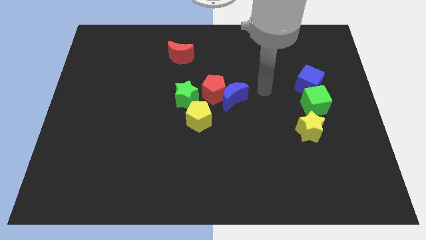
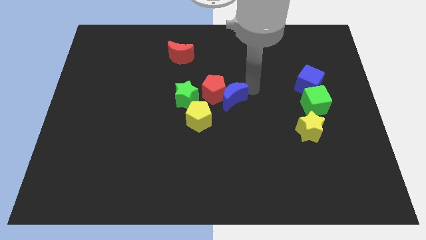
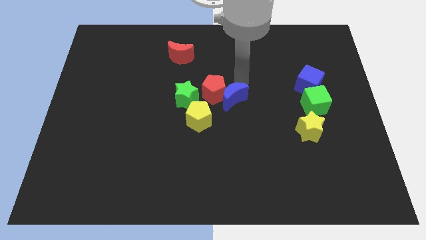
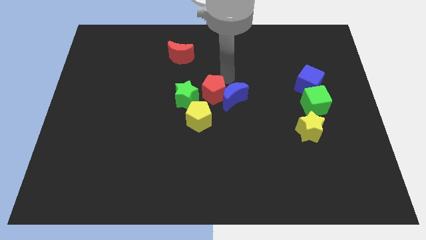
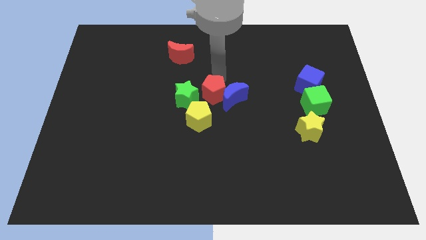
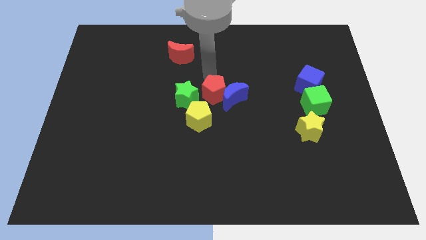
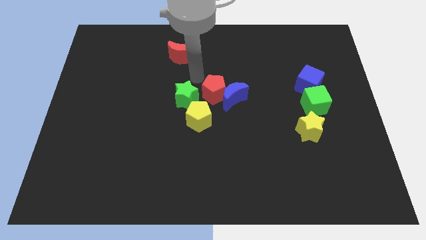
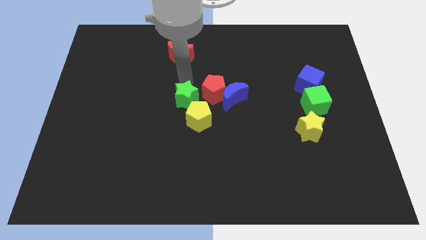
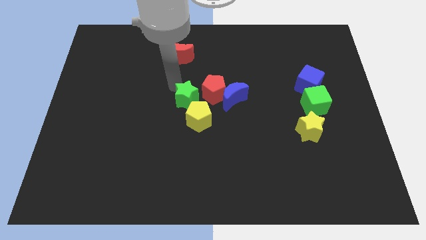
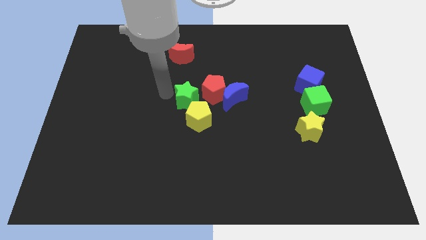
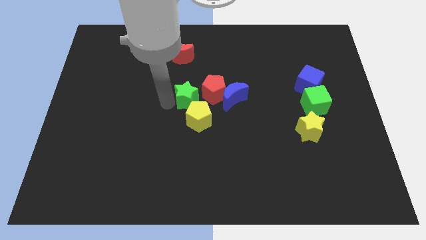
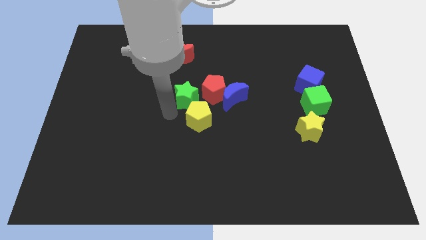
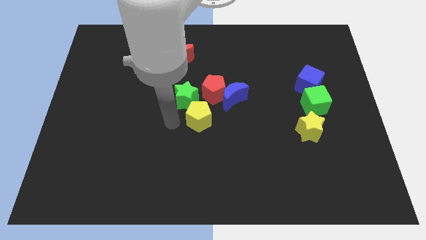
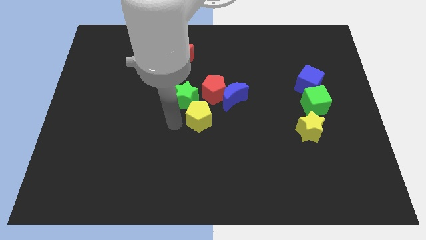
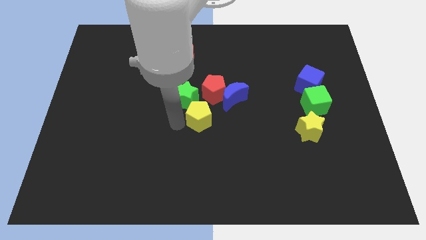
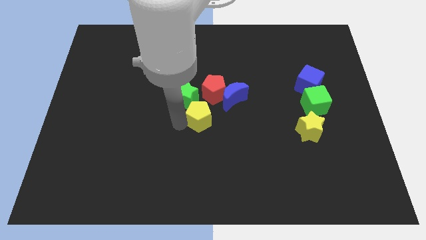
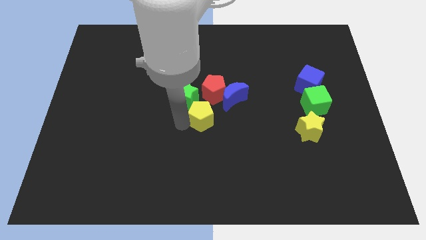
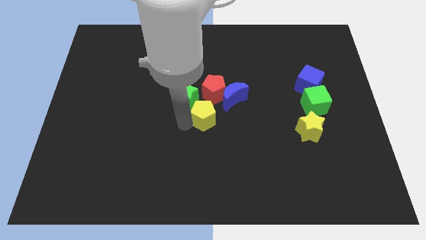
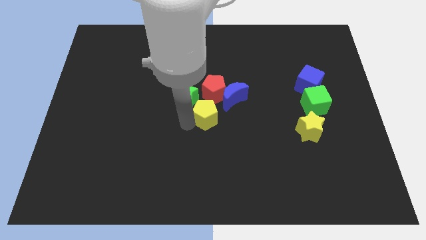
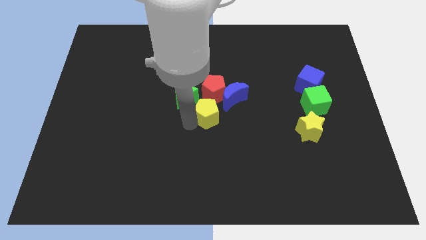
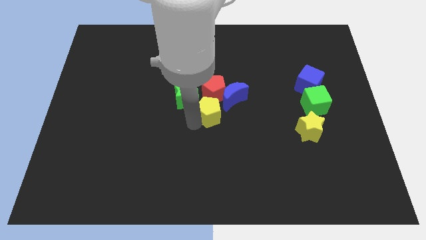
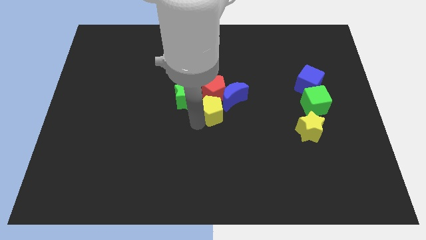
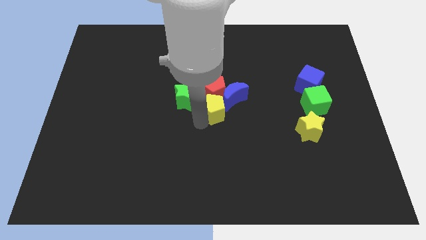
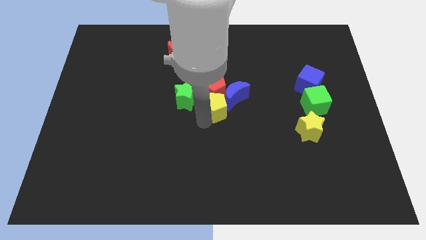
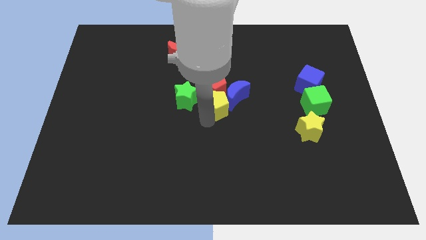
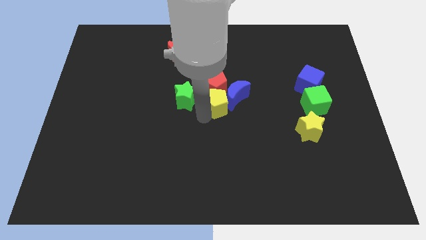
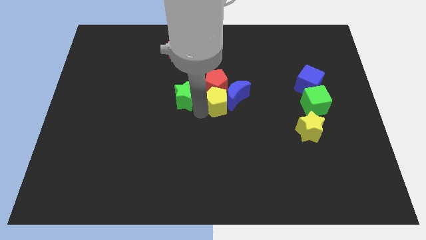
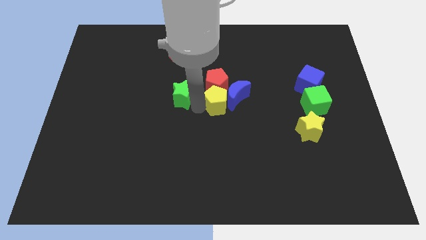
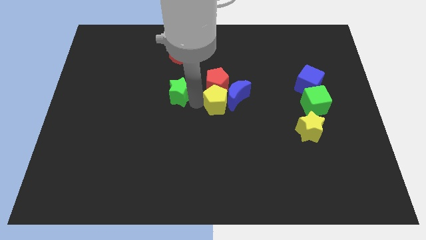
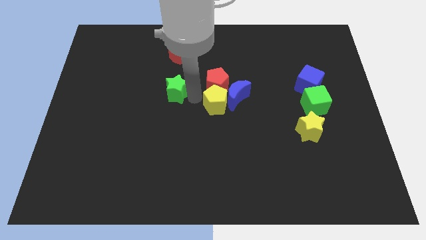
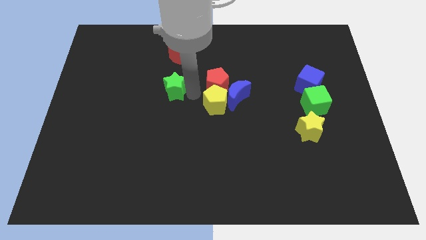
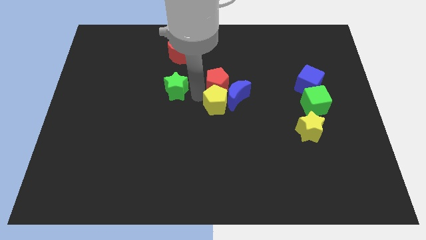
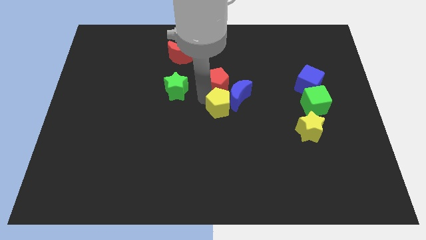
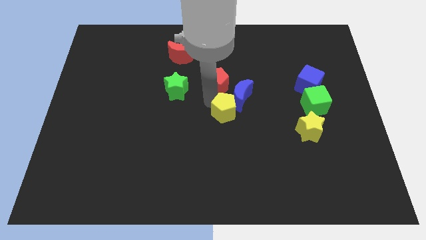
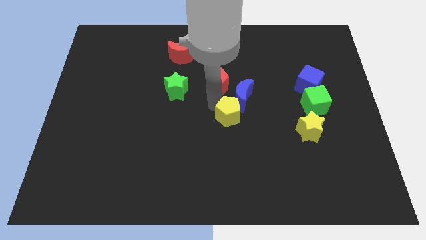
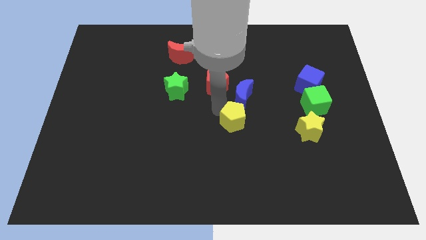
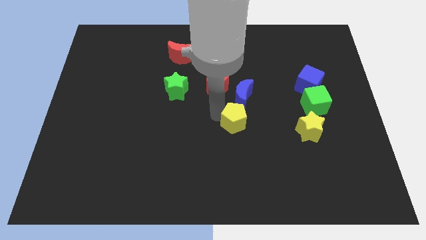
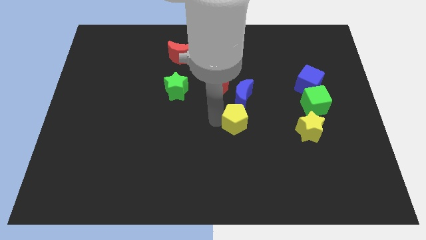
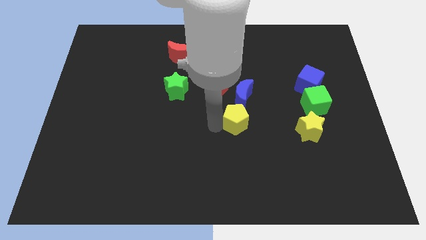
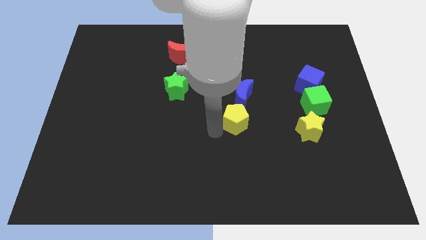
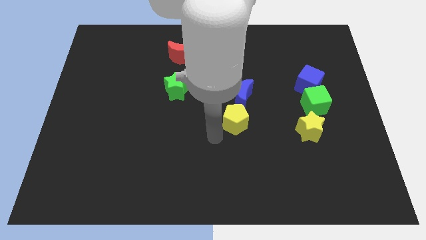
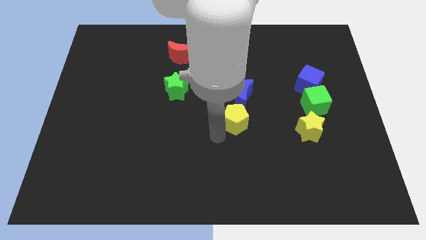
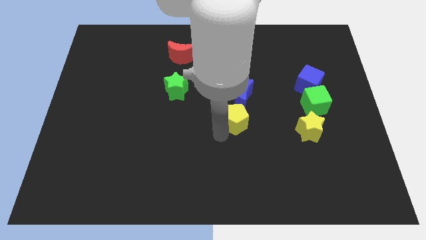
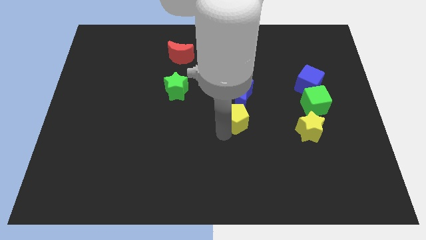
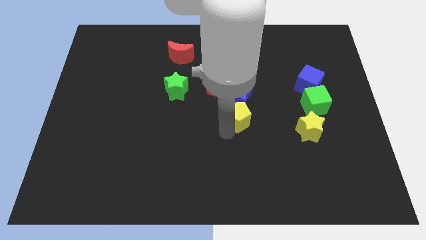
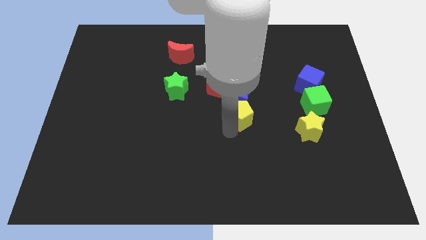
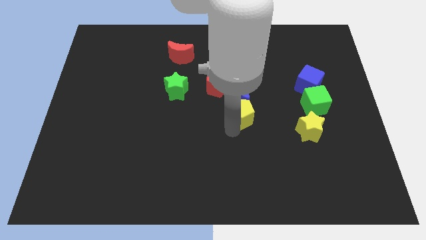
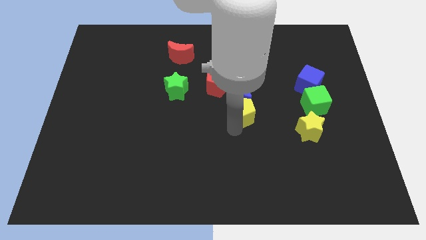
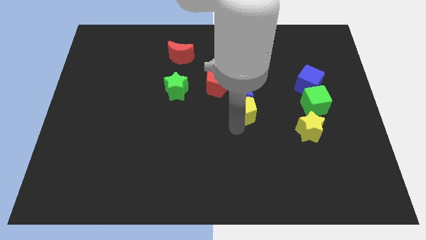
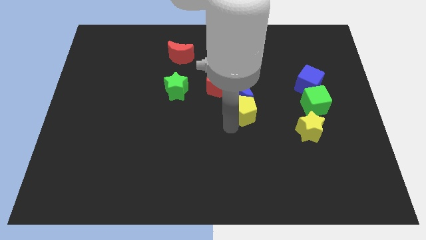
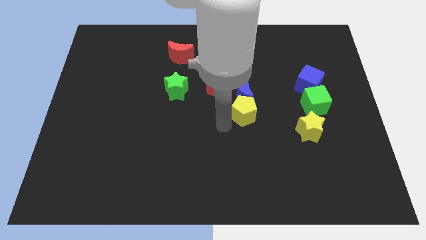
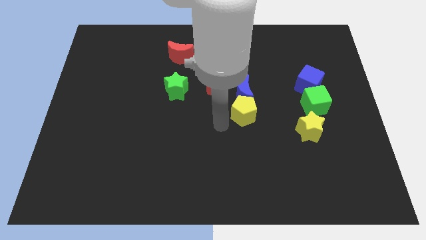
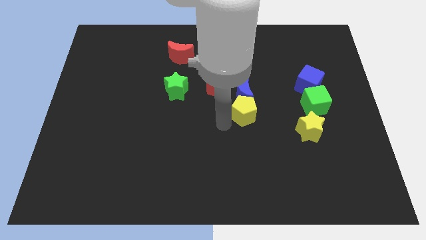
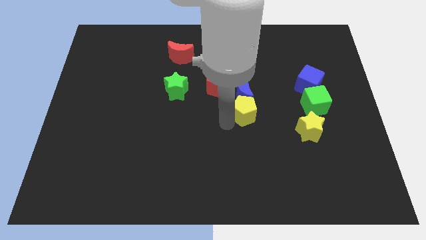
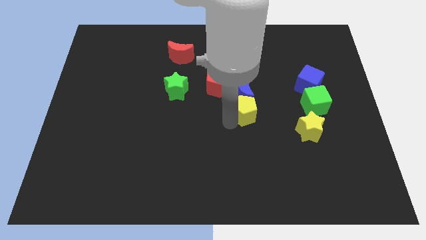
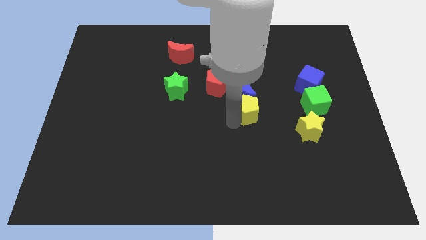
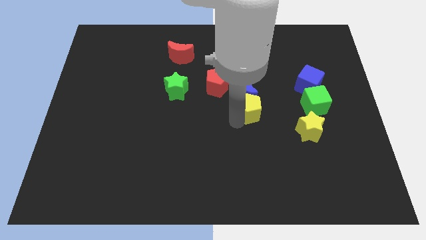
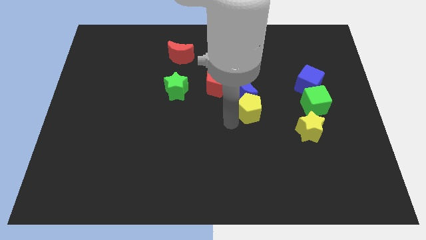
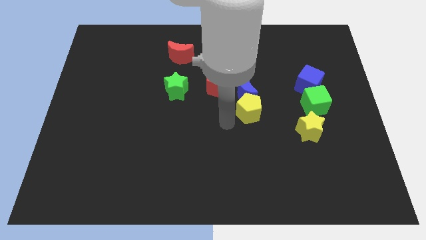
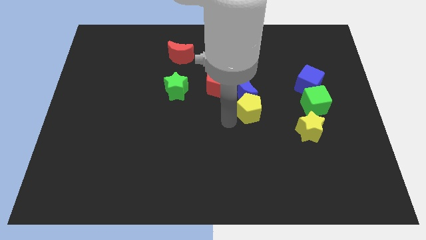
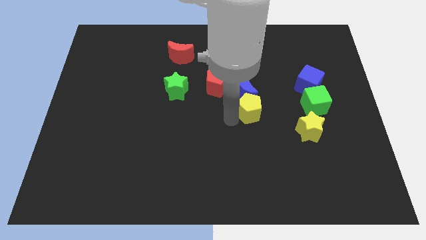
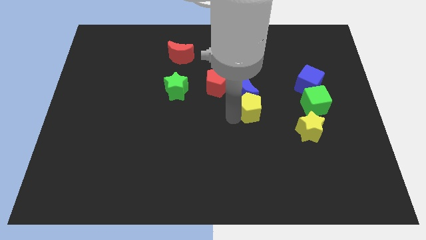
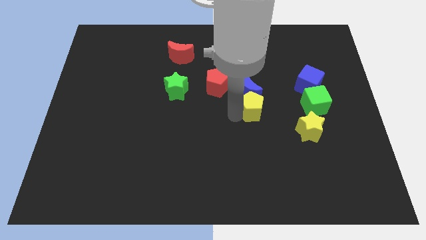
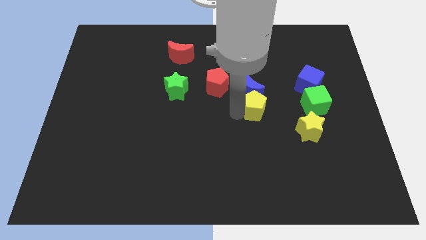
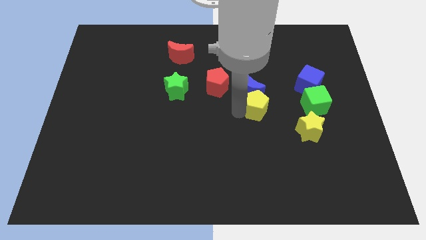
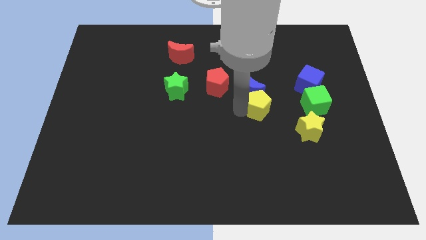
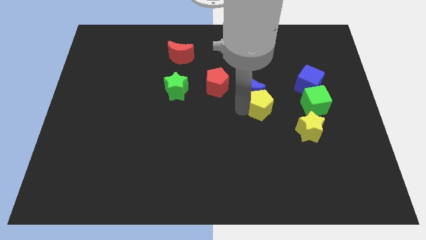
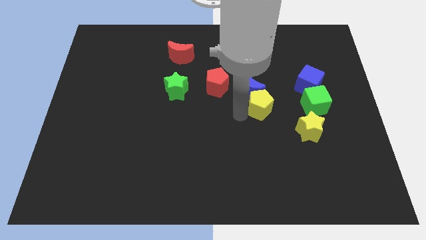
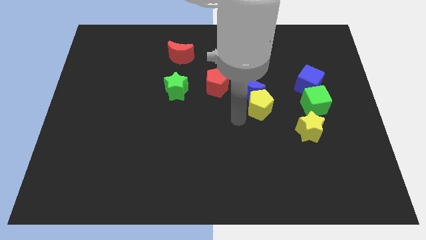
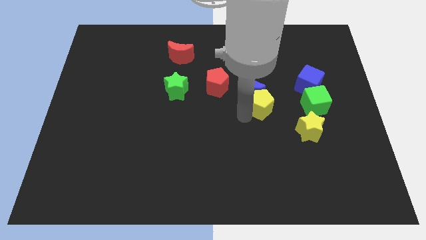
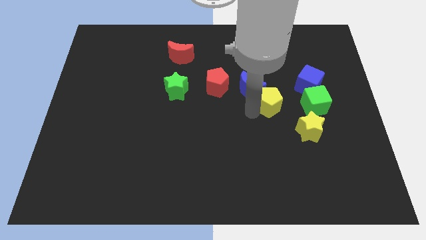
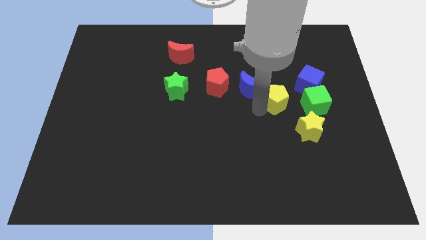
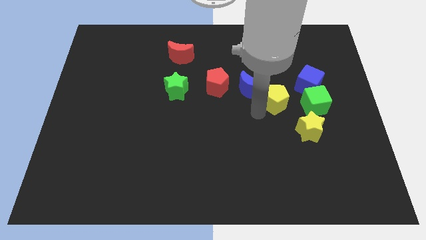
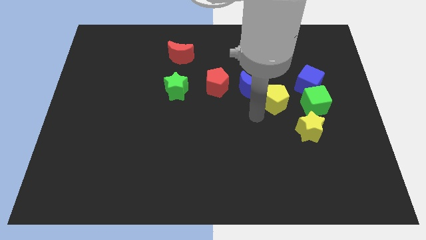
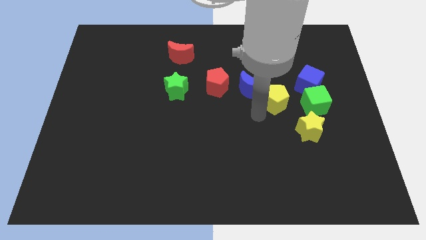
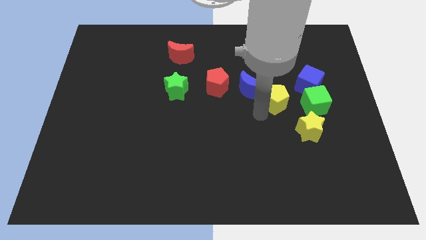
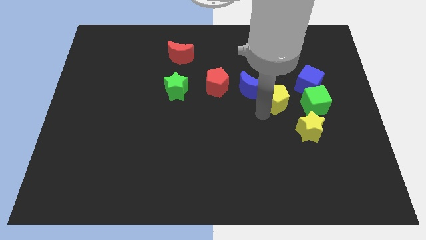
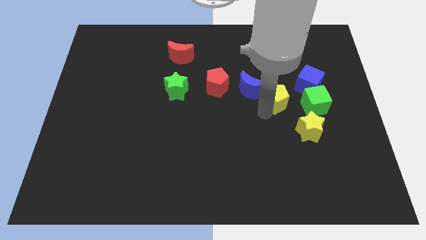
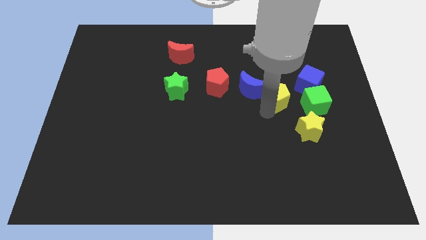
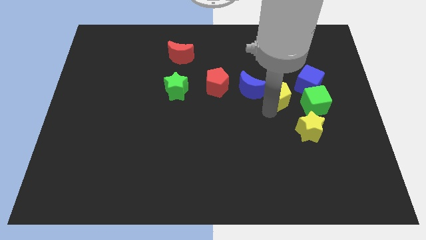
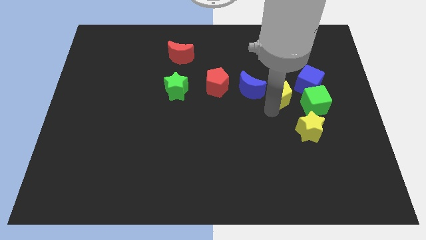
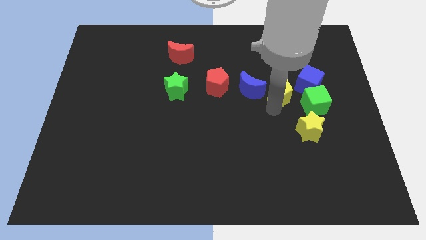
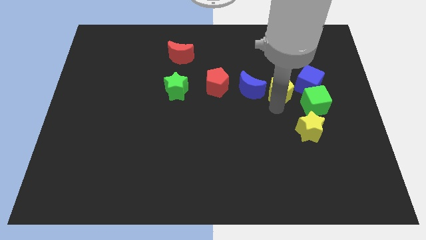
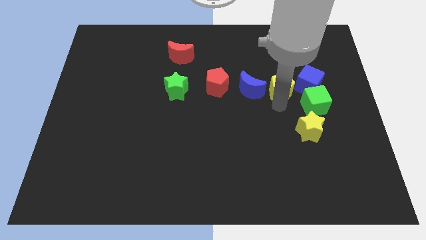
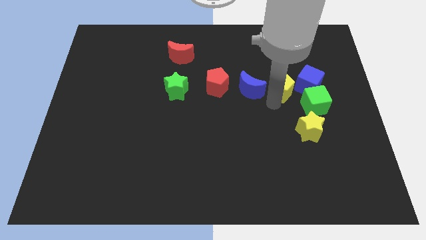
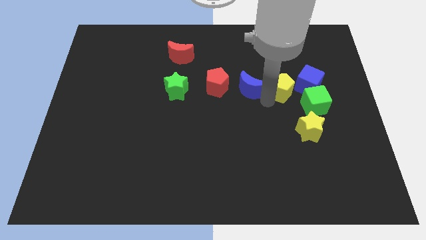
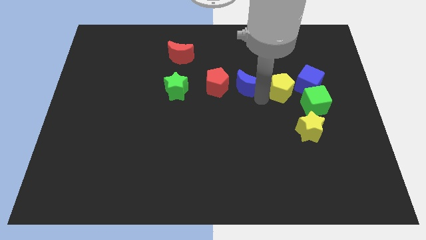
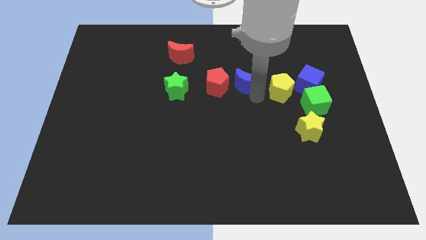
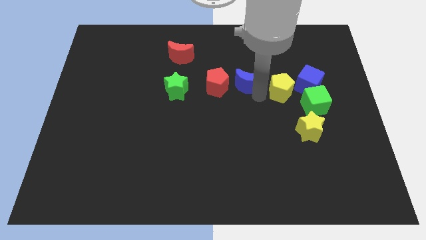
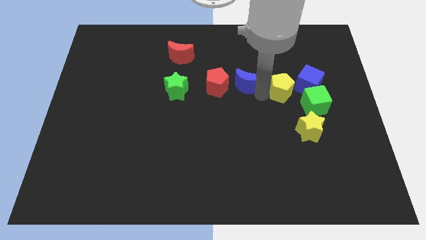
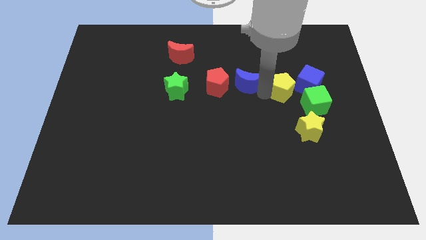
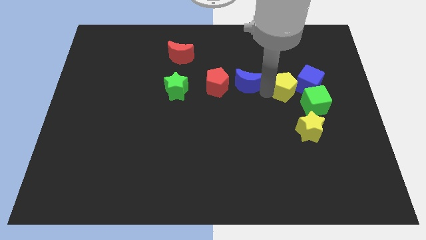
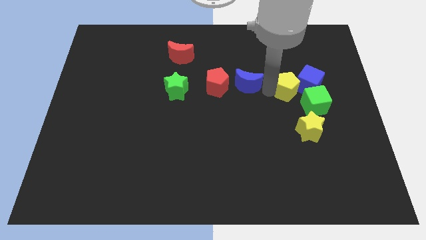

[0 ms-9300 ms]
put the yellow pentagon close to the blue cube
